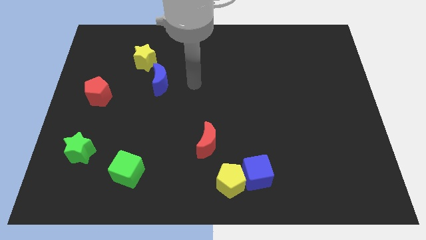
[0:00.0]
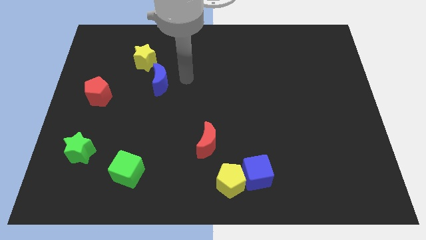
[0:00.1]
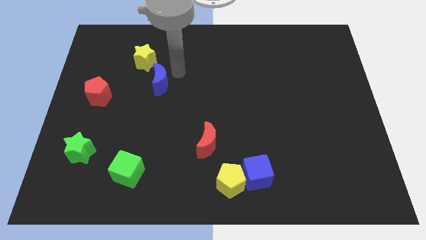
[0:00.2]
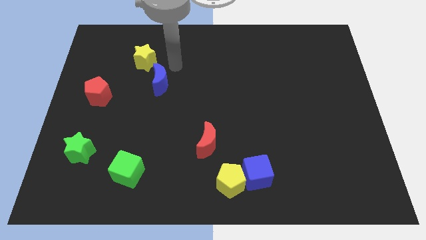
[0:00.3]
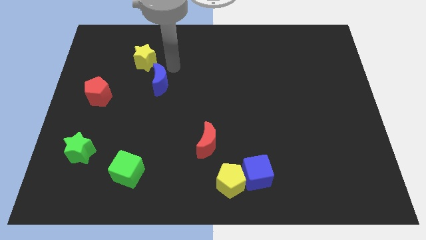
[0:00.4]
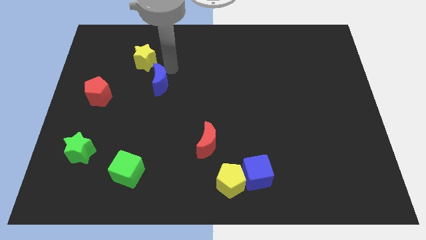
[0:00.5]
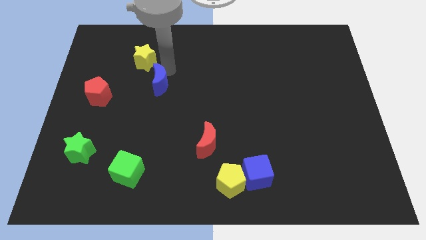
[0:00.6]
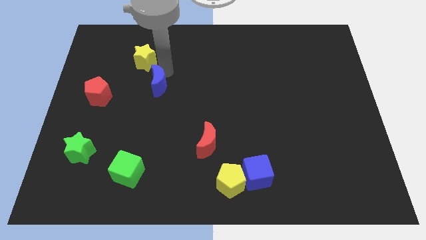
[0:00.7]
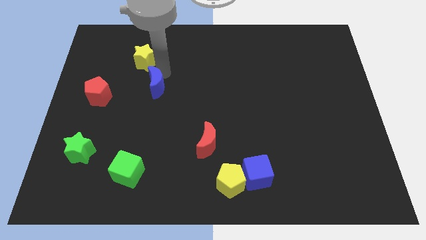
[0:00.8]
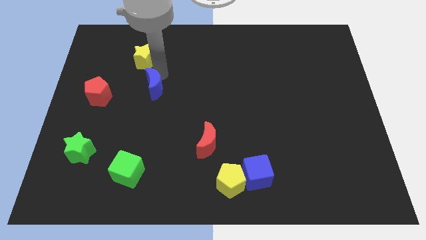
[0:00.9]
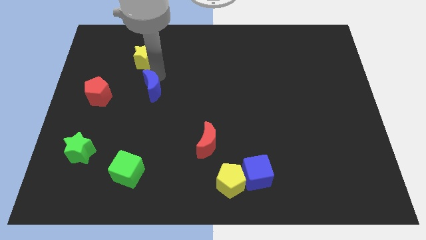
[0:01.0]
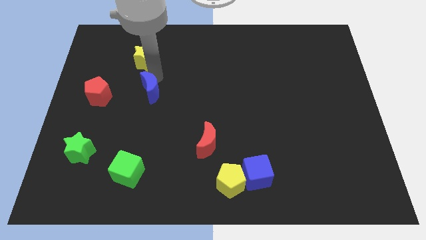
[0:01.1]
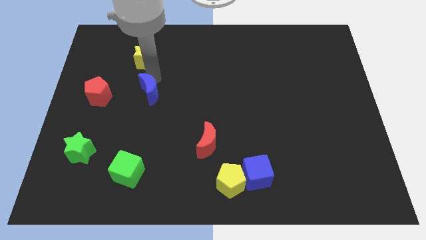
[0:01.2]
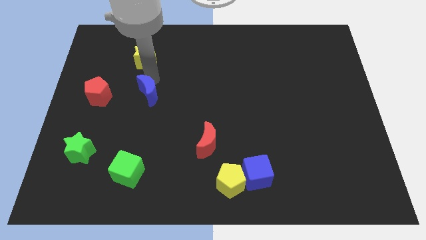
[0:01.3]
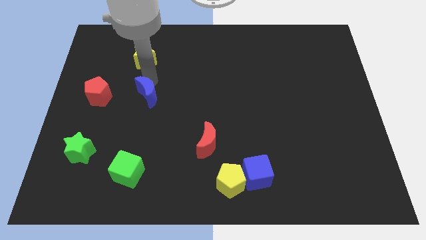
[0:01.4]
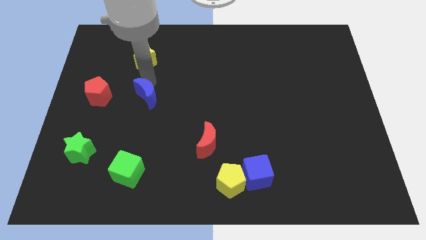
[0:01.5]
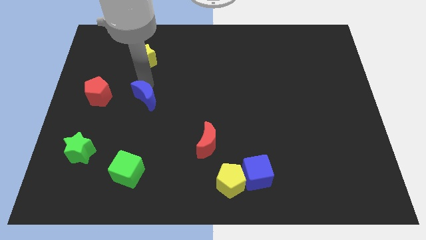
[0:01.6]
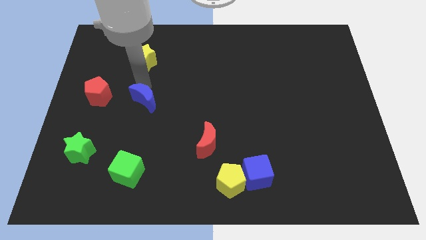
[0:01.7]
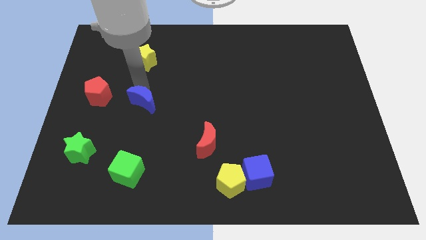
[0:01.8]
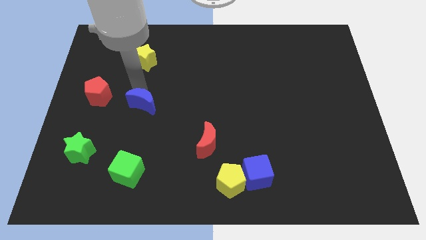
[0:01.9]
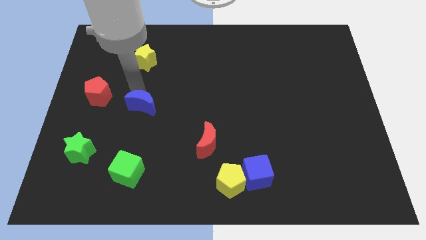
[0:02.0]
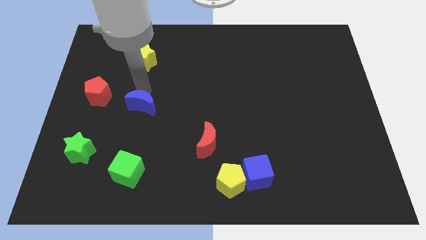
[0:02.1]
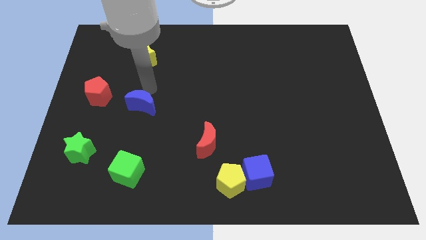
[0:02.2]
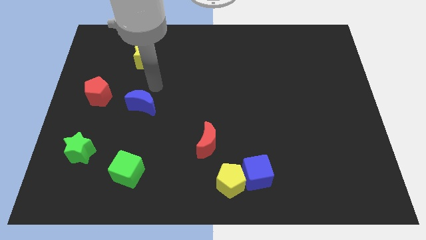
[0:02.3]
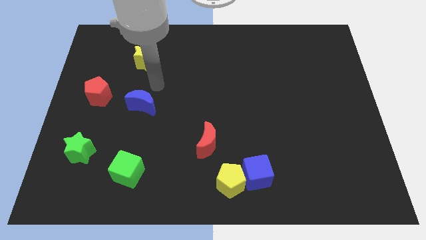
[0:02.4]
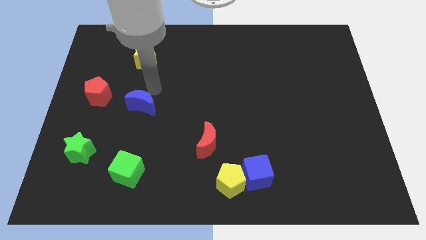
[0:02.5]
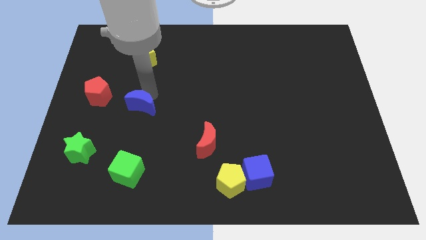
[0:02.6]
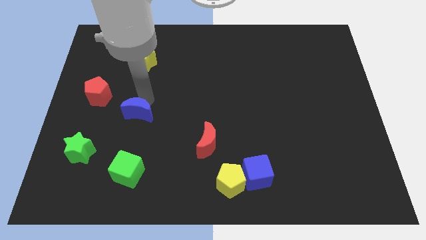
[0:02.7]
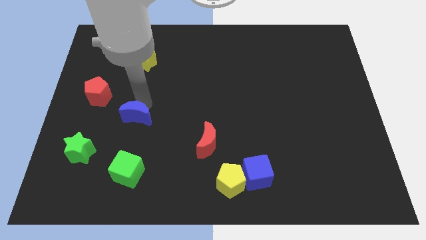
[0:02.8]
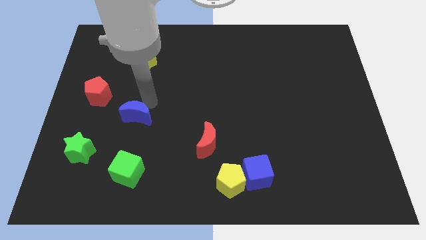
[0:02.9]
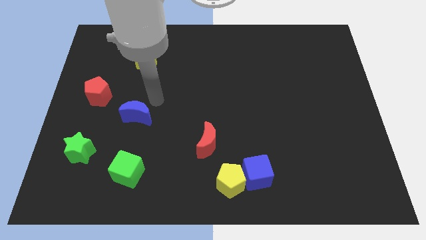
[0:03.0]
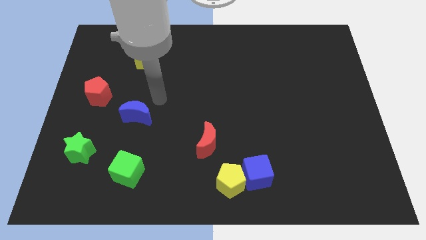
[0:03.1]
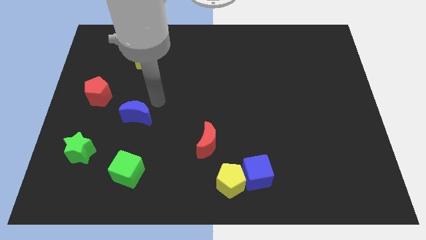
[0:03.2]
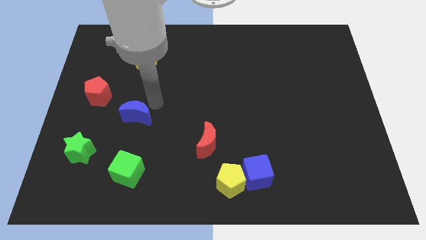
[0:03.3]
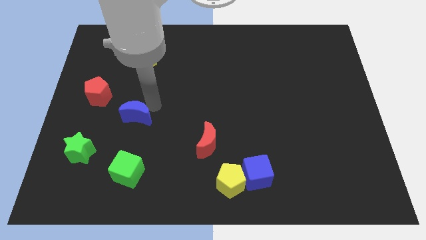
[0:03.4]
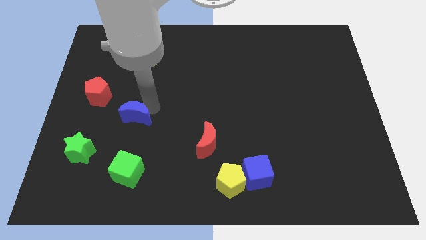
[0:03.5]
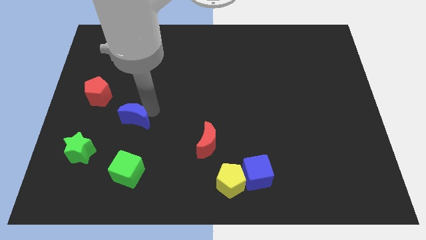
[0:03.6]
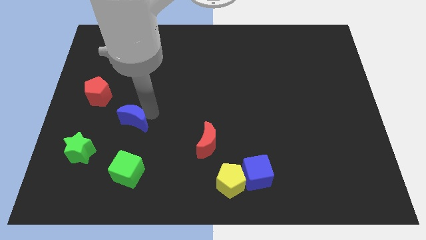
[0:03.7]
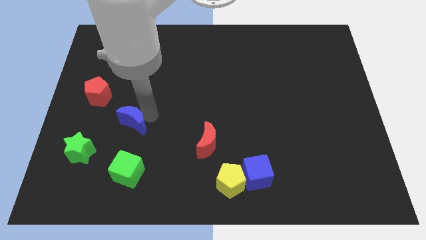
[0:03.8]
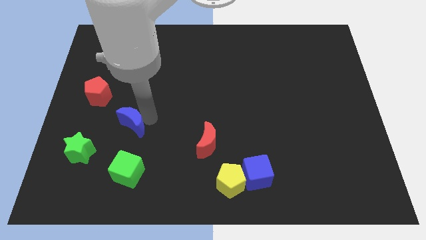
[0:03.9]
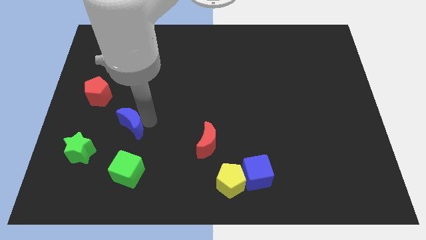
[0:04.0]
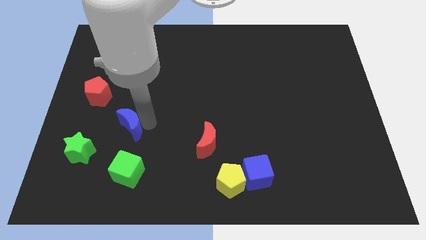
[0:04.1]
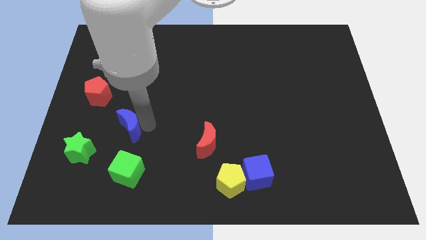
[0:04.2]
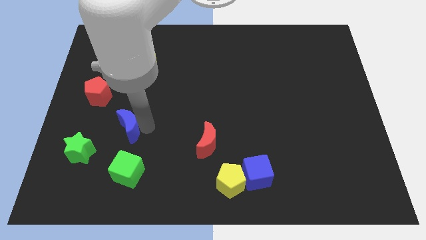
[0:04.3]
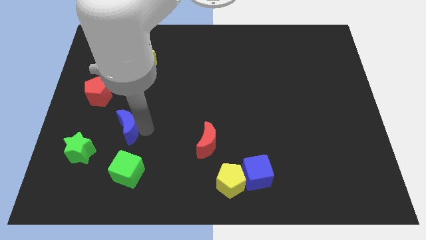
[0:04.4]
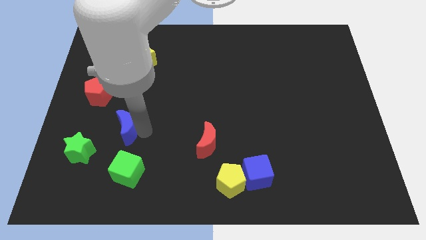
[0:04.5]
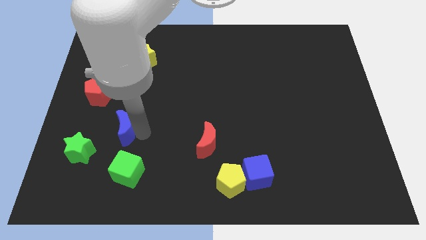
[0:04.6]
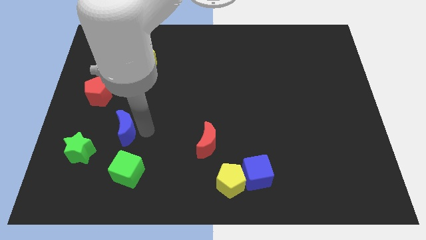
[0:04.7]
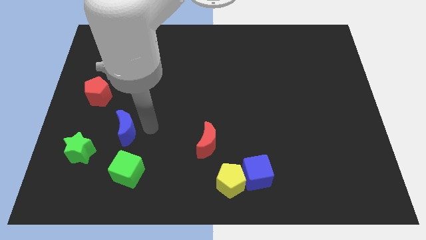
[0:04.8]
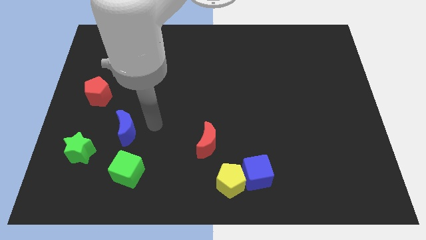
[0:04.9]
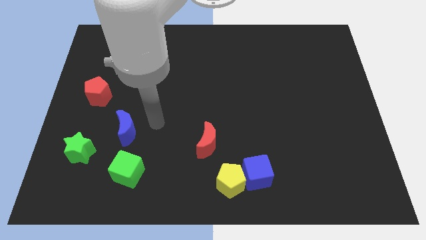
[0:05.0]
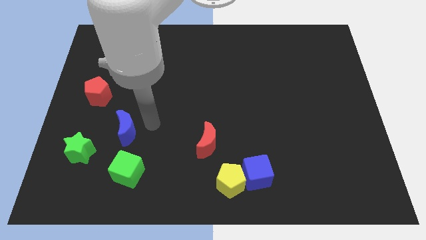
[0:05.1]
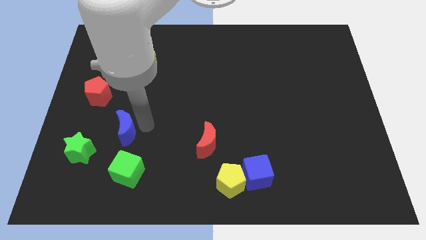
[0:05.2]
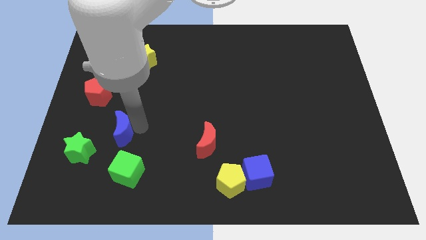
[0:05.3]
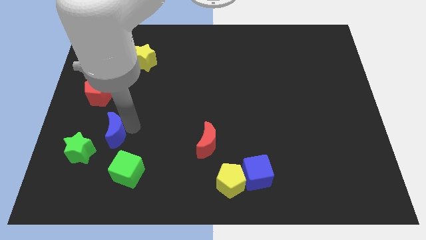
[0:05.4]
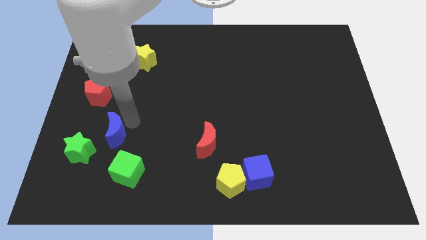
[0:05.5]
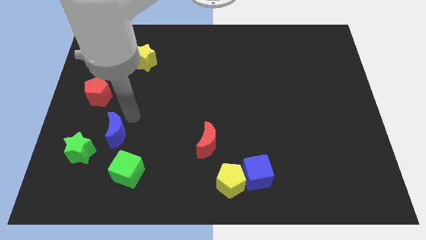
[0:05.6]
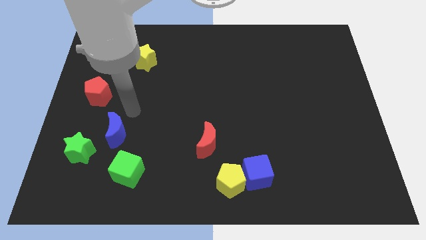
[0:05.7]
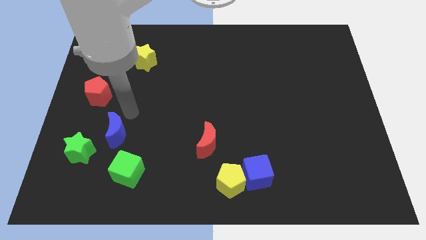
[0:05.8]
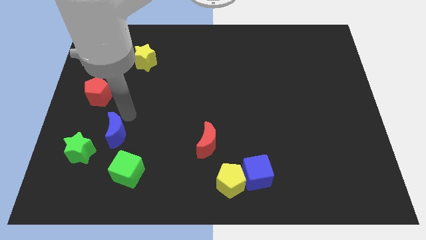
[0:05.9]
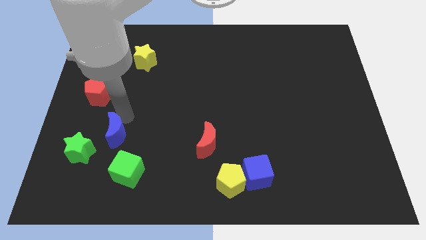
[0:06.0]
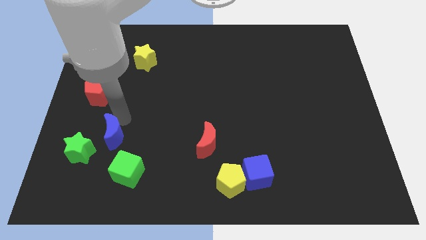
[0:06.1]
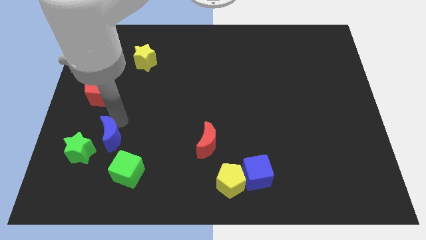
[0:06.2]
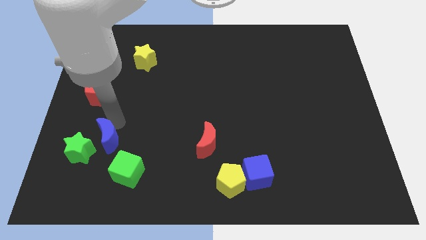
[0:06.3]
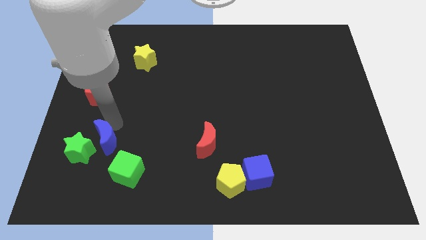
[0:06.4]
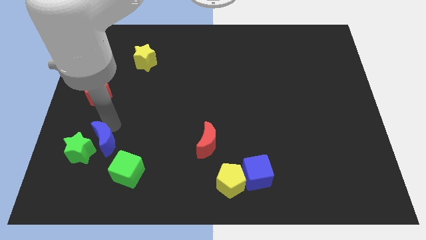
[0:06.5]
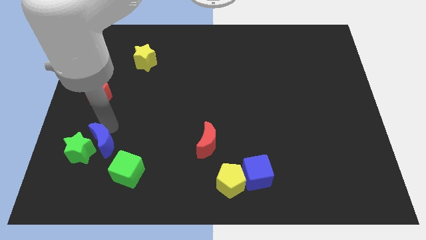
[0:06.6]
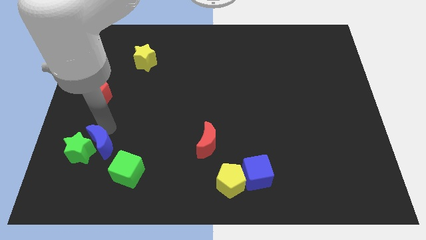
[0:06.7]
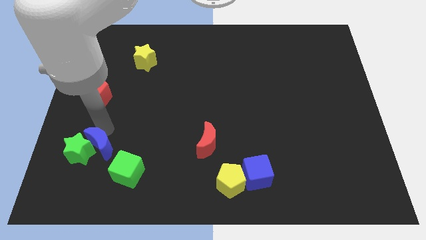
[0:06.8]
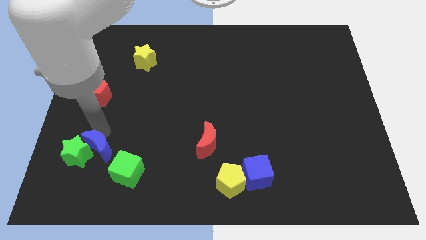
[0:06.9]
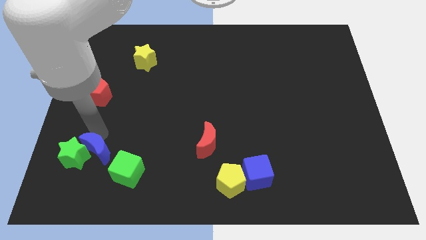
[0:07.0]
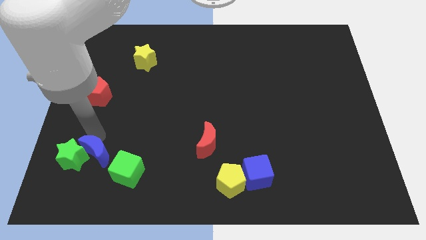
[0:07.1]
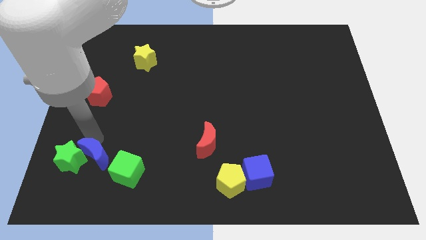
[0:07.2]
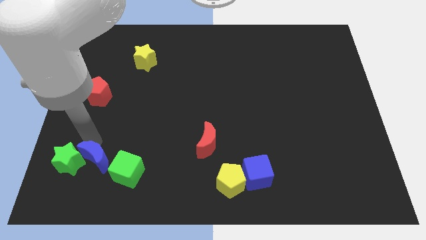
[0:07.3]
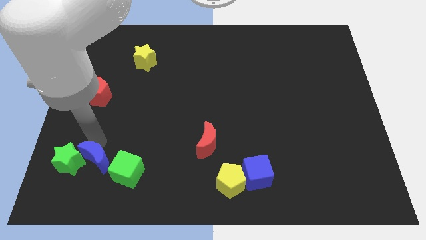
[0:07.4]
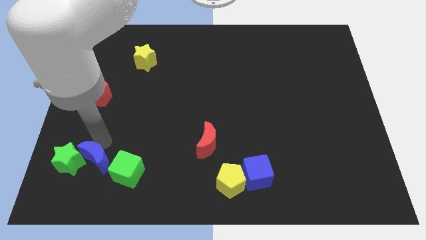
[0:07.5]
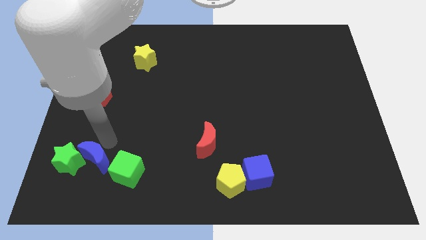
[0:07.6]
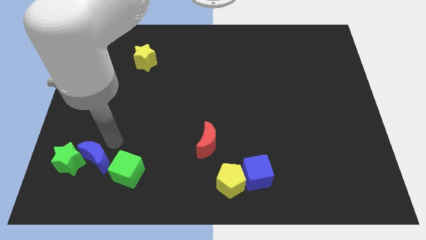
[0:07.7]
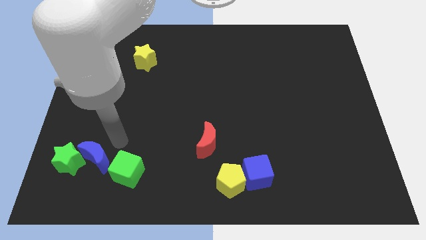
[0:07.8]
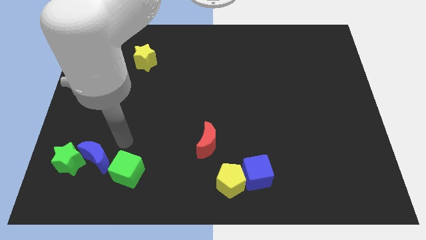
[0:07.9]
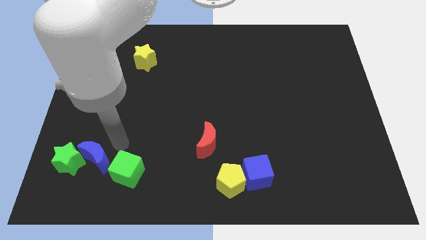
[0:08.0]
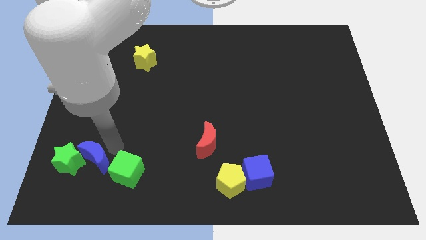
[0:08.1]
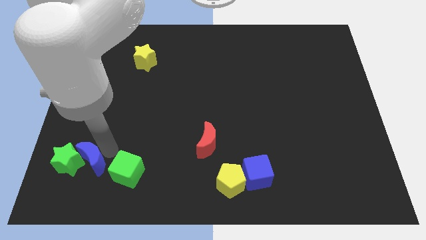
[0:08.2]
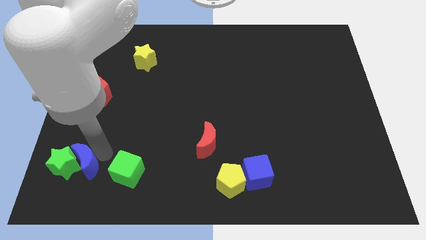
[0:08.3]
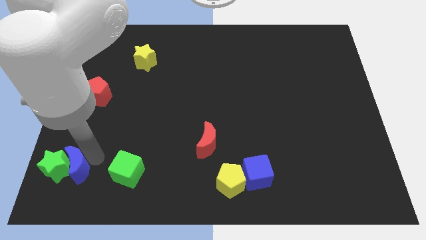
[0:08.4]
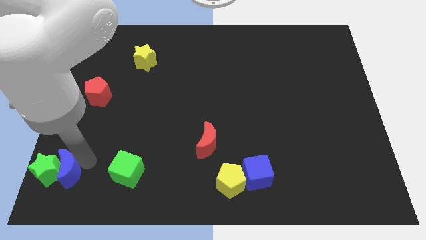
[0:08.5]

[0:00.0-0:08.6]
put the blue moon to the bottom left corner
